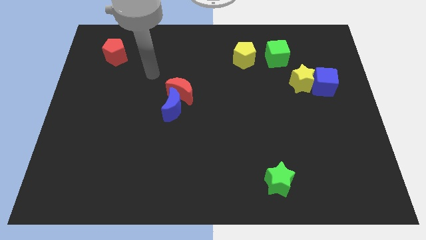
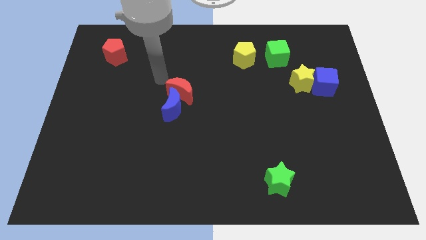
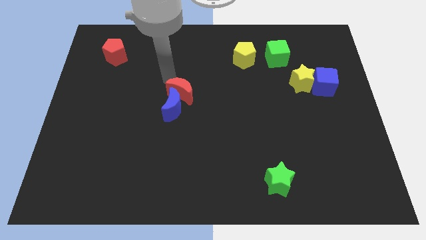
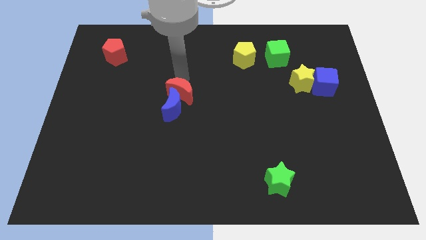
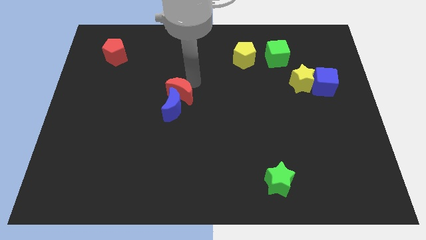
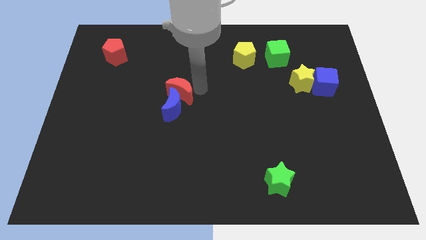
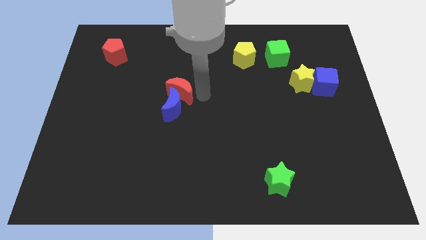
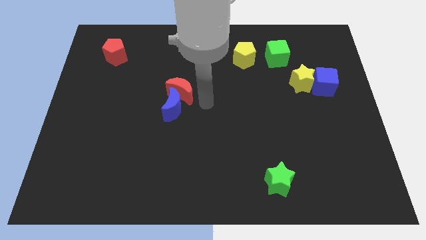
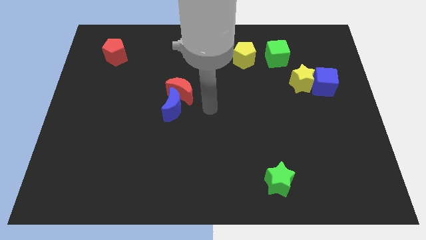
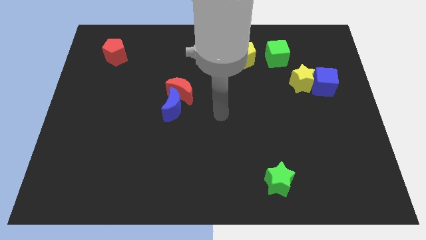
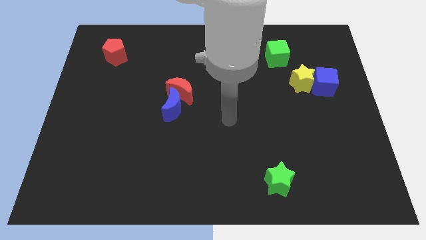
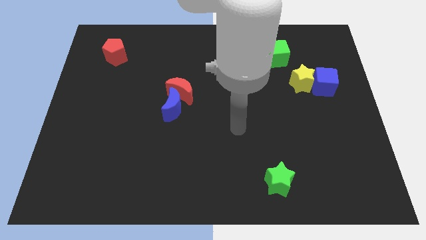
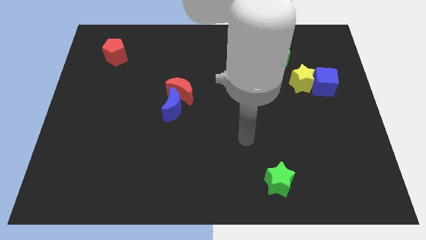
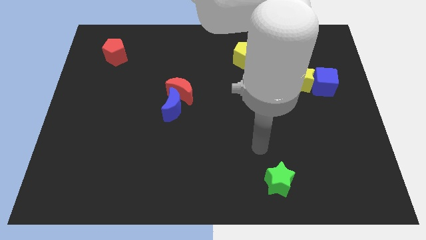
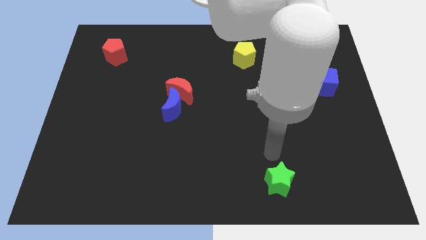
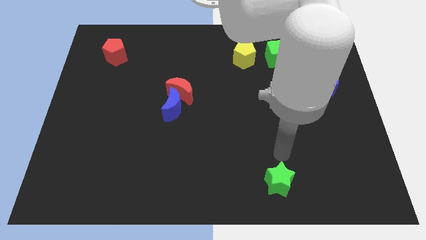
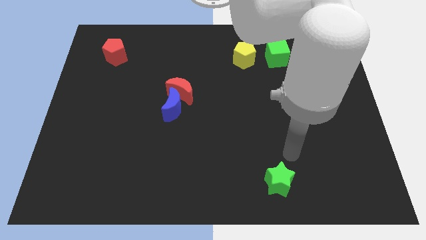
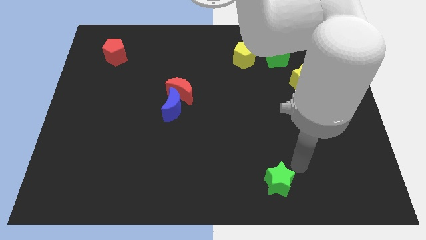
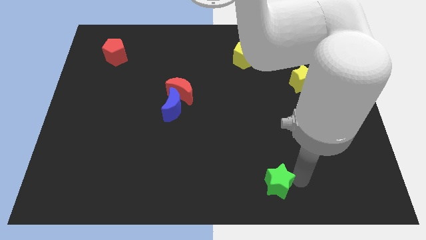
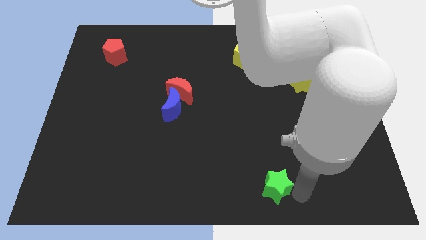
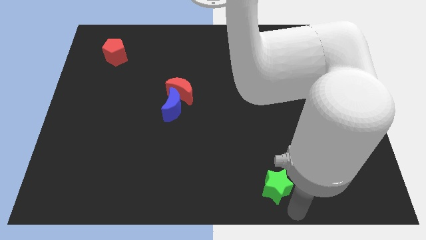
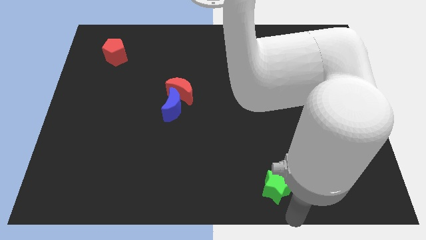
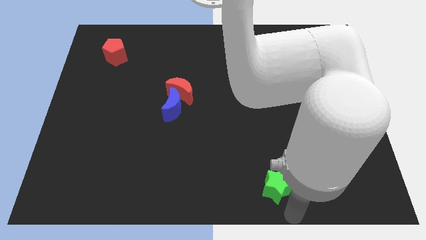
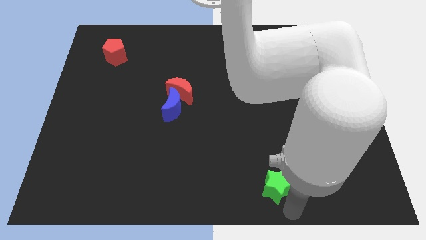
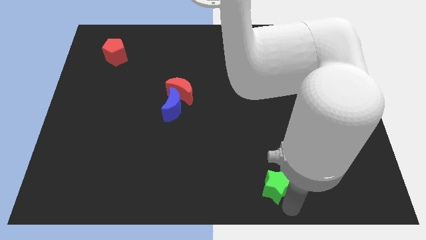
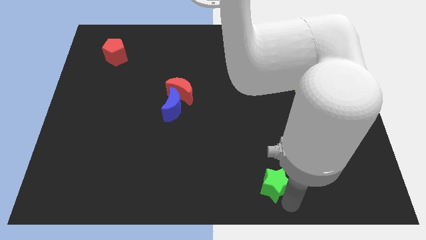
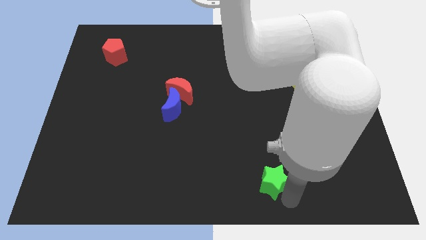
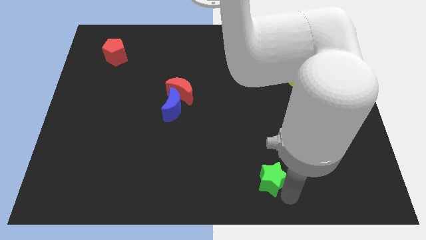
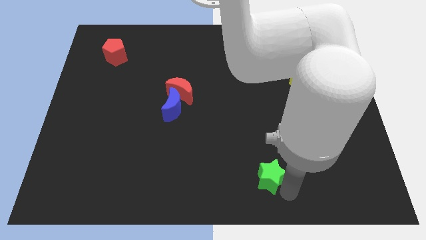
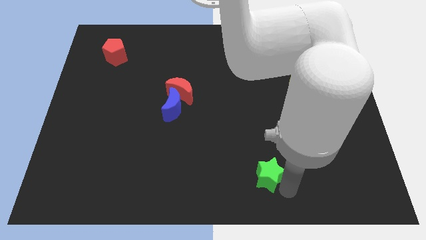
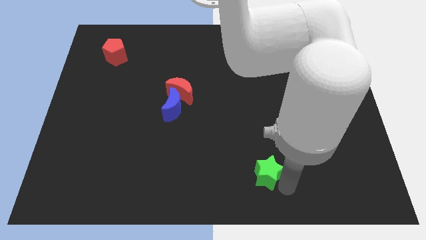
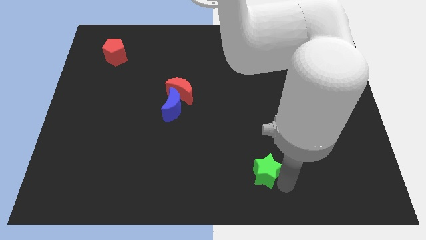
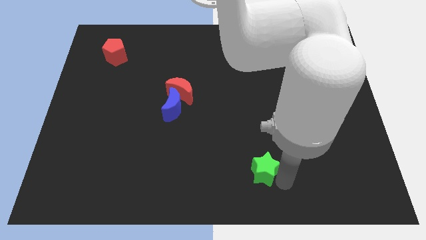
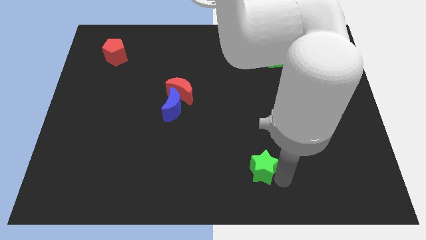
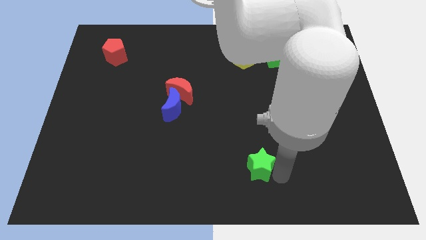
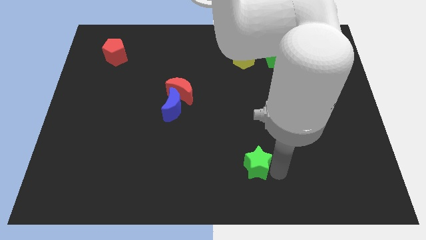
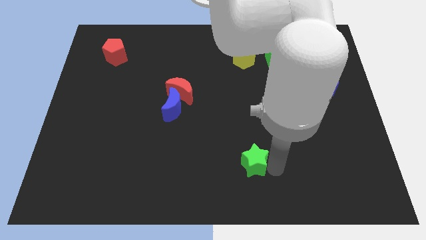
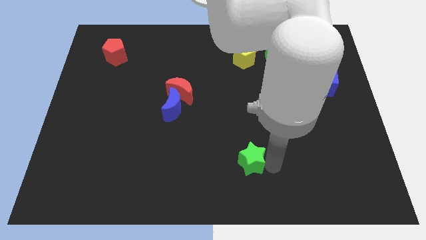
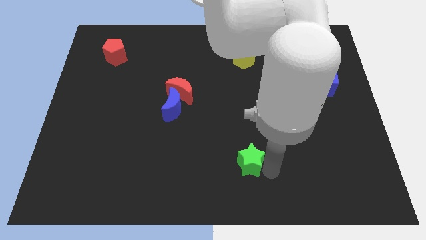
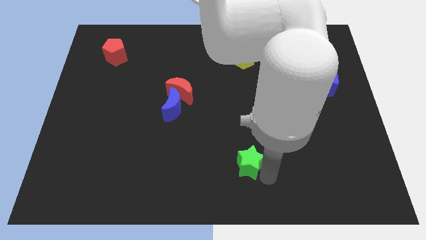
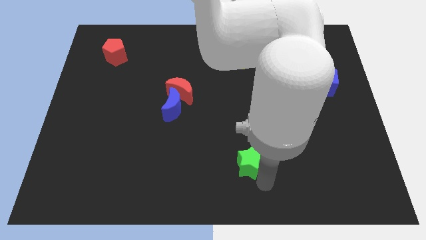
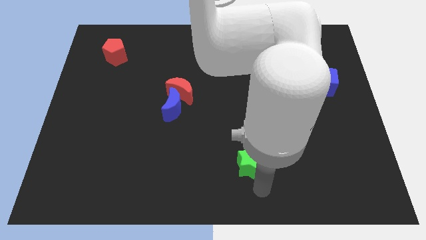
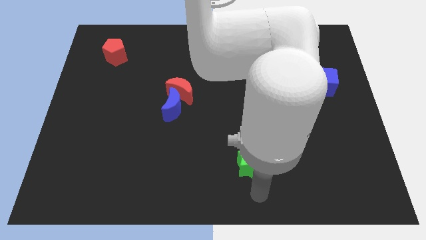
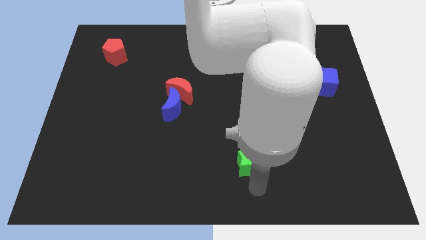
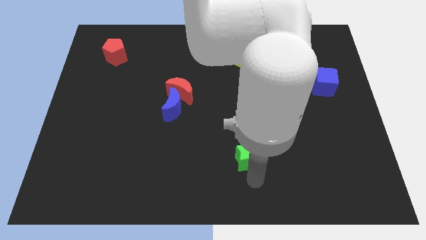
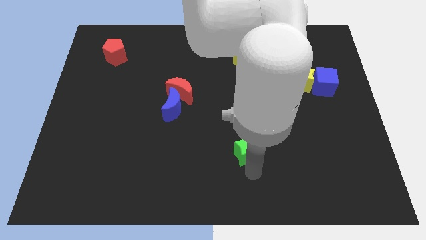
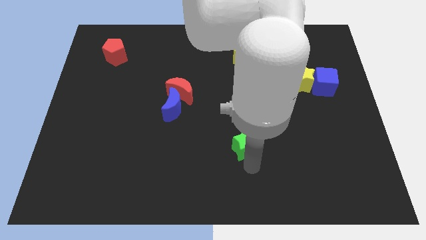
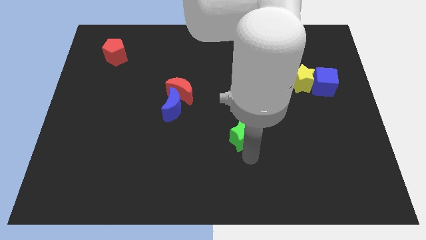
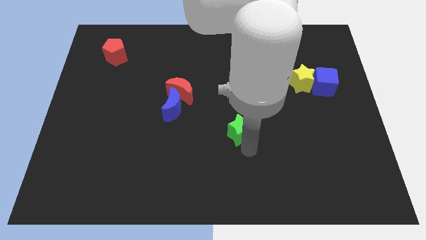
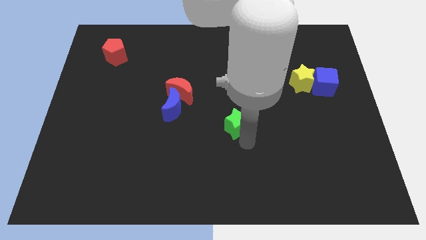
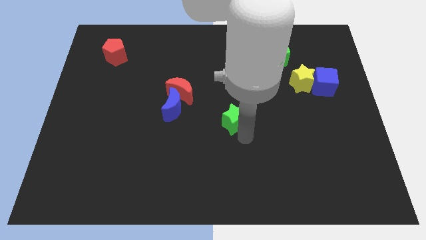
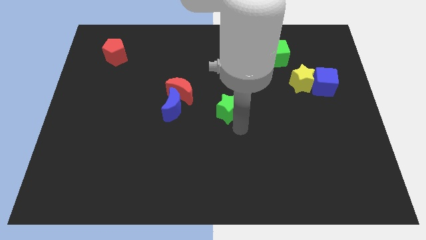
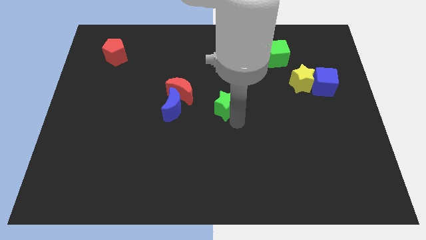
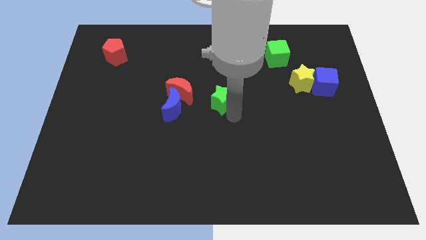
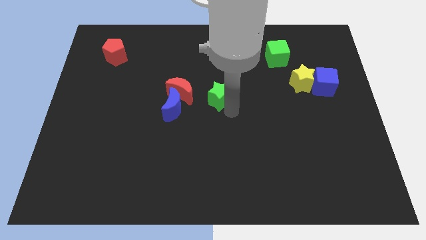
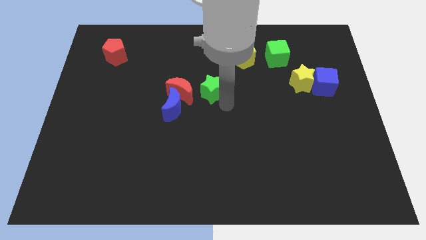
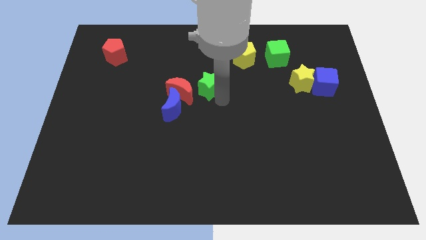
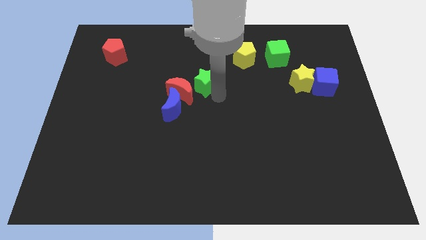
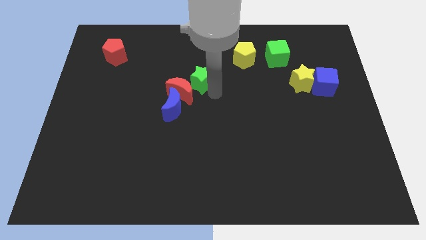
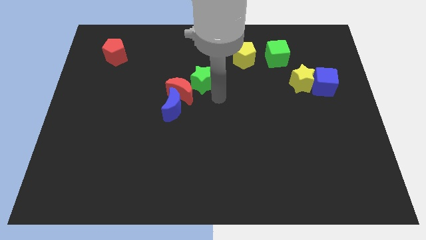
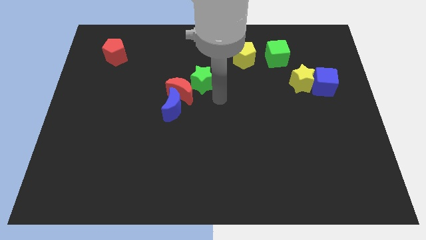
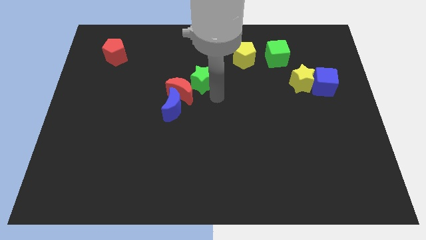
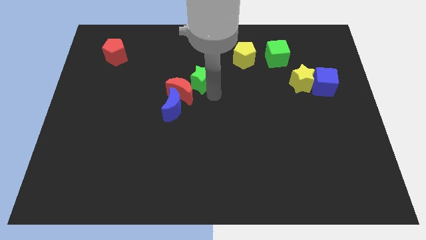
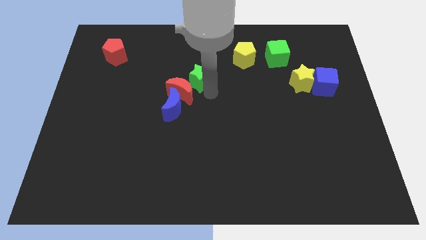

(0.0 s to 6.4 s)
push the green star above the red moon
